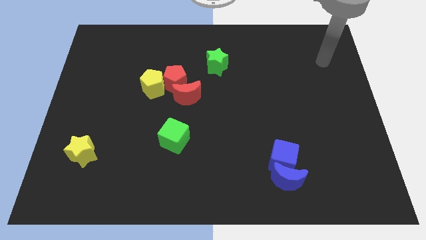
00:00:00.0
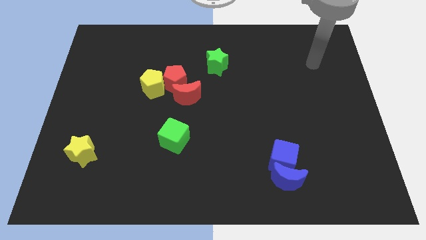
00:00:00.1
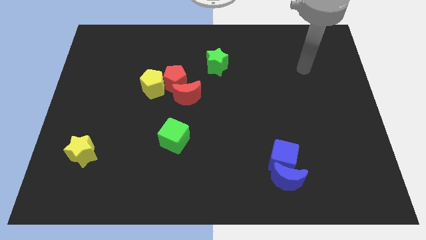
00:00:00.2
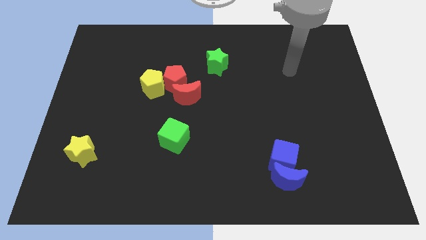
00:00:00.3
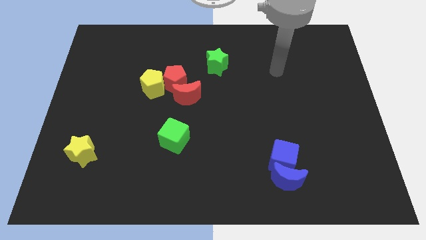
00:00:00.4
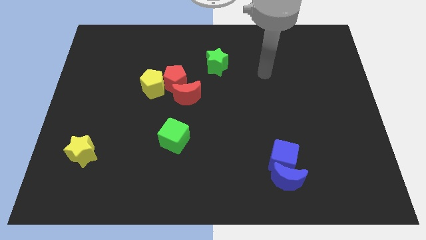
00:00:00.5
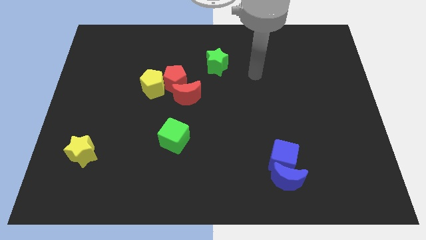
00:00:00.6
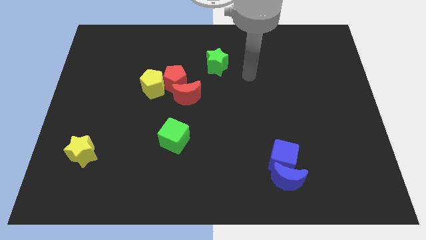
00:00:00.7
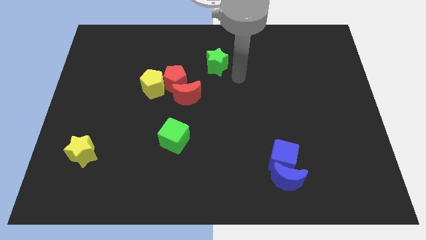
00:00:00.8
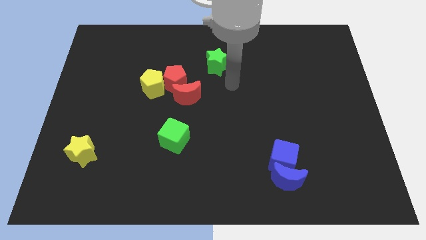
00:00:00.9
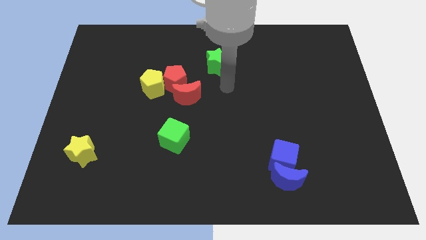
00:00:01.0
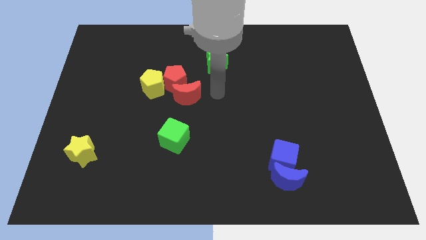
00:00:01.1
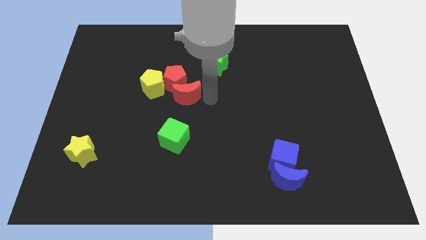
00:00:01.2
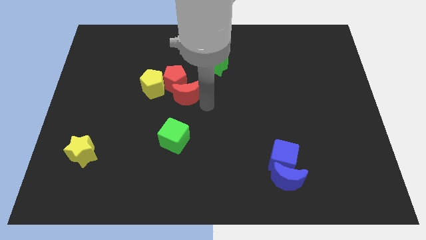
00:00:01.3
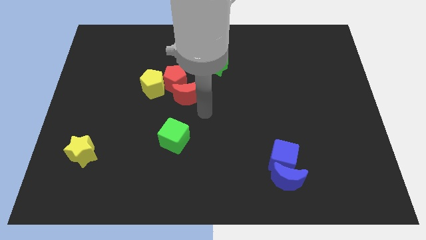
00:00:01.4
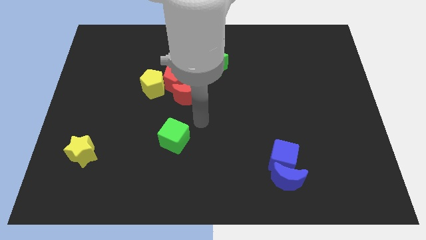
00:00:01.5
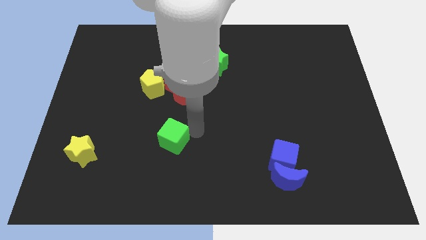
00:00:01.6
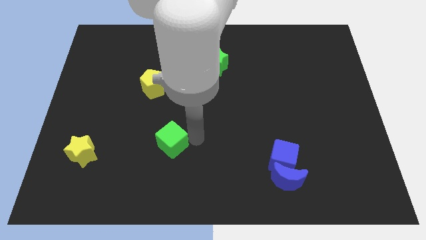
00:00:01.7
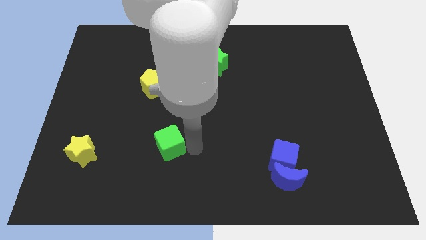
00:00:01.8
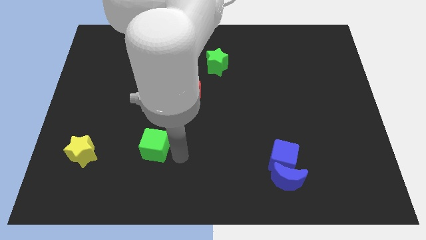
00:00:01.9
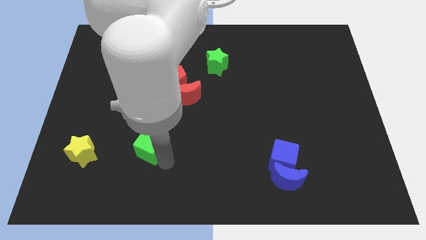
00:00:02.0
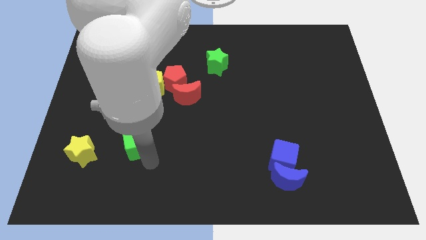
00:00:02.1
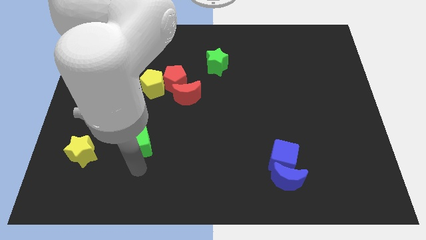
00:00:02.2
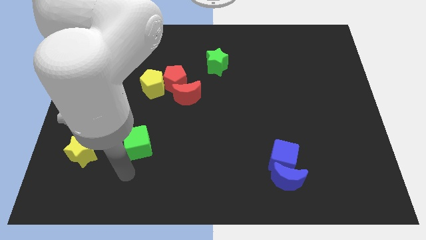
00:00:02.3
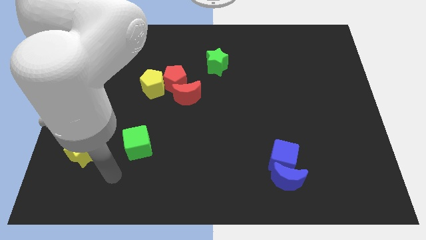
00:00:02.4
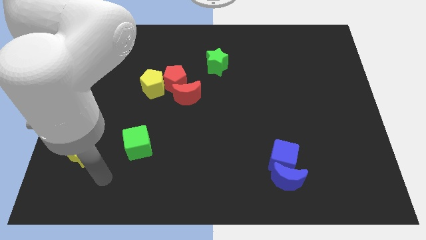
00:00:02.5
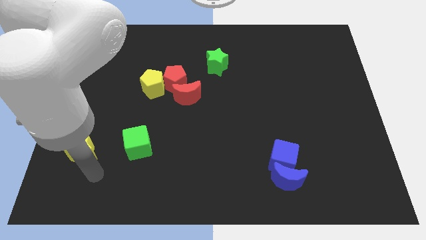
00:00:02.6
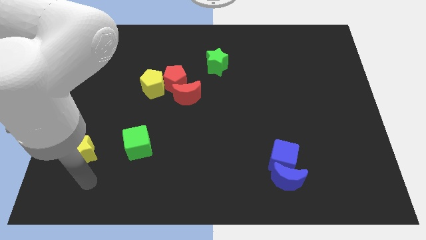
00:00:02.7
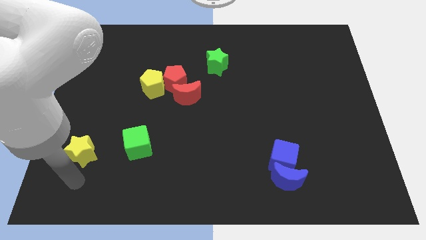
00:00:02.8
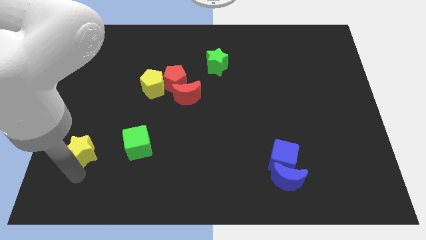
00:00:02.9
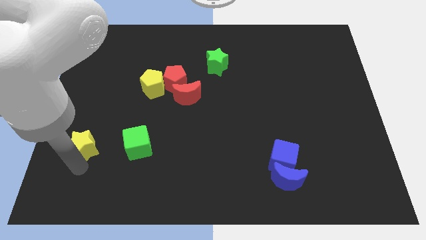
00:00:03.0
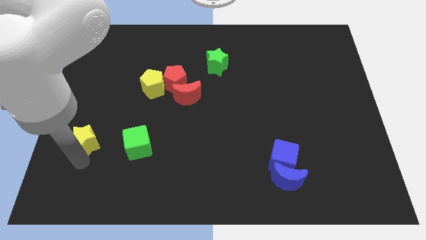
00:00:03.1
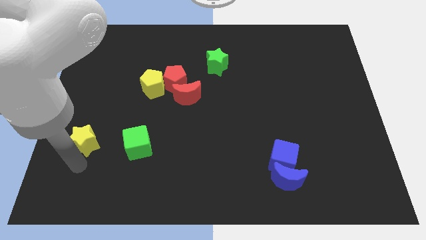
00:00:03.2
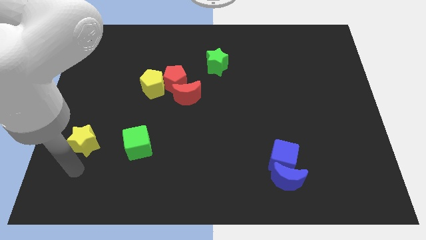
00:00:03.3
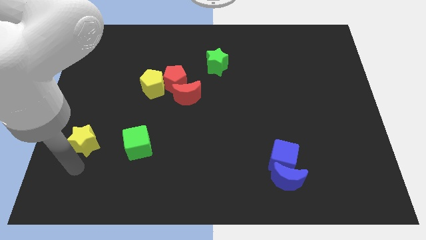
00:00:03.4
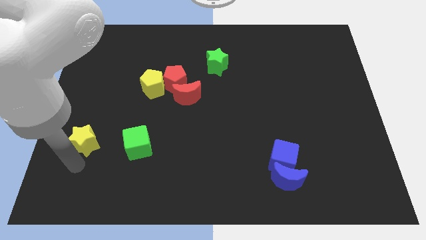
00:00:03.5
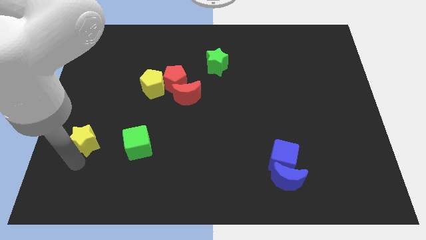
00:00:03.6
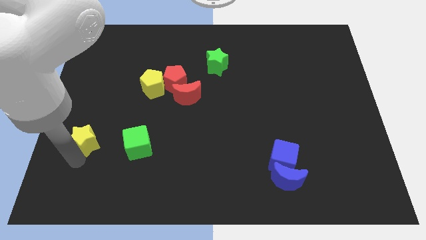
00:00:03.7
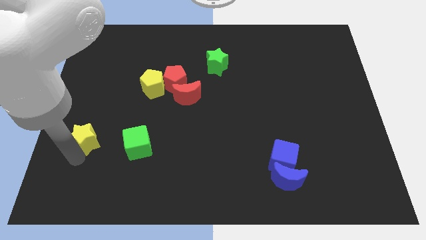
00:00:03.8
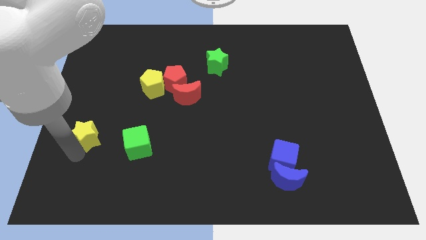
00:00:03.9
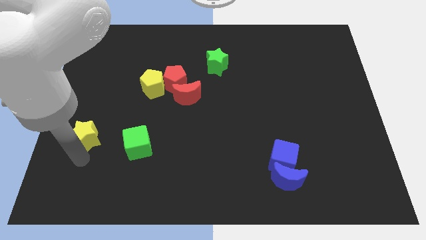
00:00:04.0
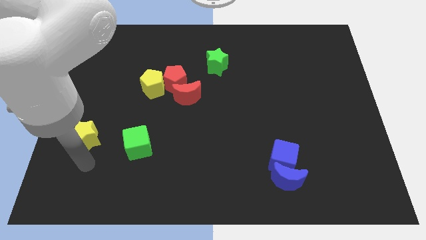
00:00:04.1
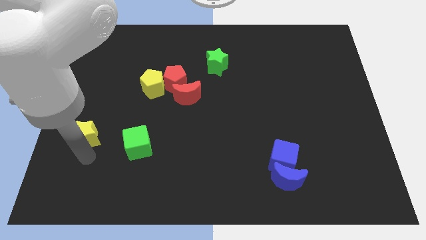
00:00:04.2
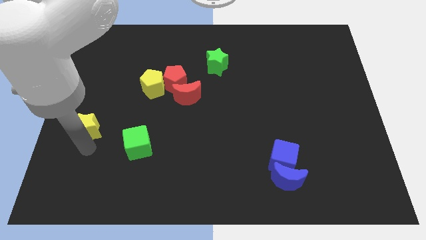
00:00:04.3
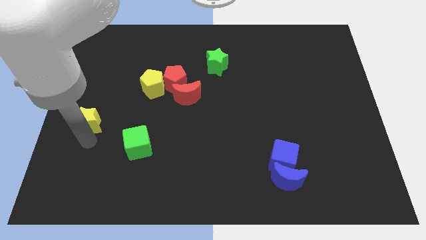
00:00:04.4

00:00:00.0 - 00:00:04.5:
push the yellow star a little up

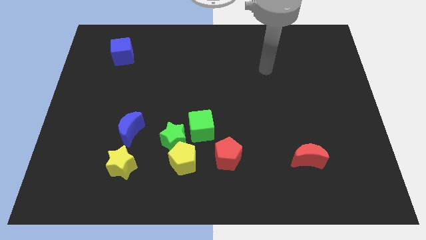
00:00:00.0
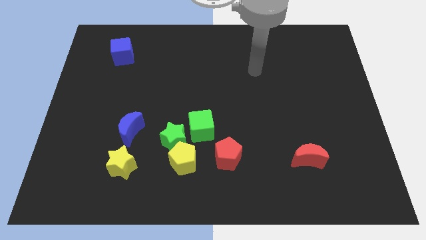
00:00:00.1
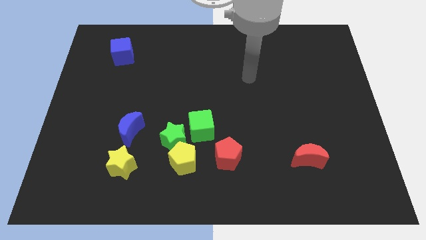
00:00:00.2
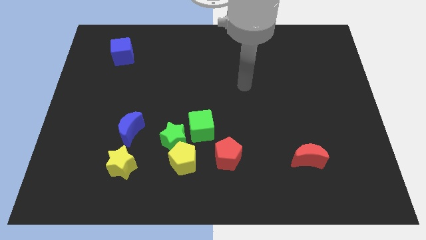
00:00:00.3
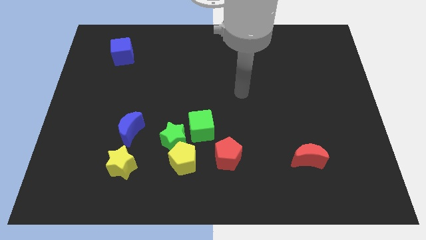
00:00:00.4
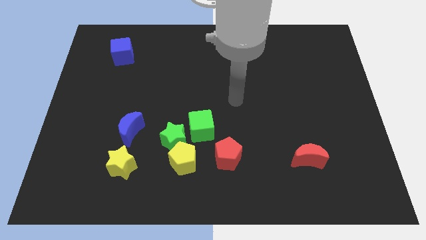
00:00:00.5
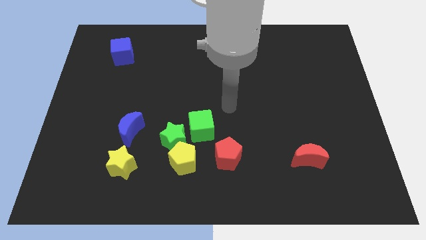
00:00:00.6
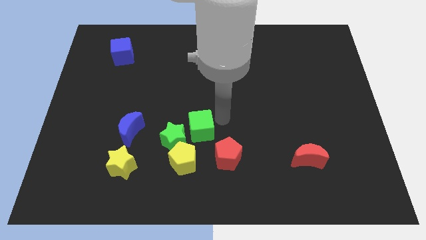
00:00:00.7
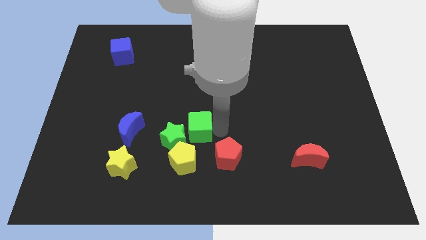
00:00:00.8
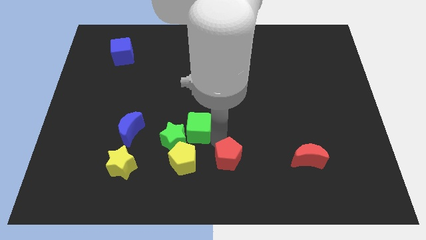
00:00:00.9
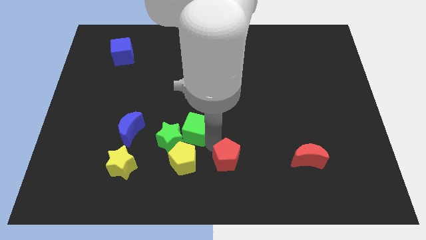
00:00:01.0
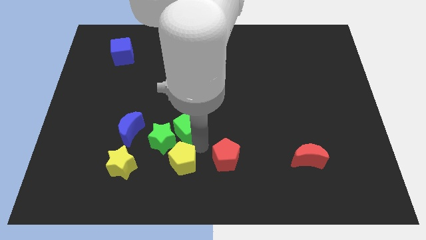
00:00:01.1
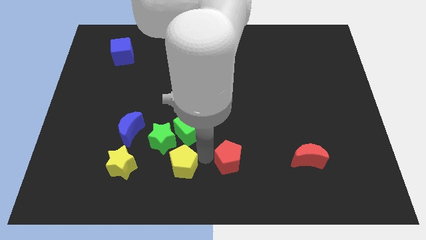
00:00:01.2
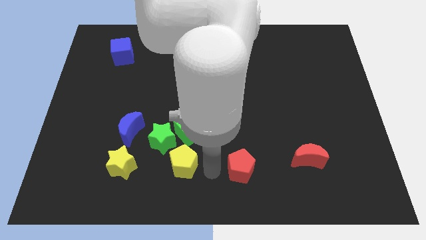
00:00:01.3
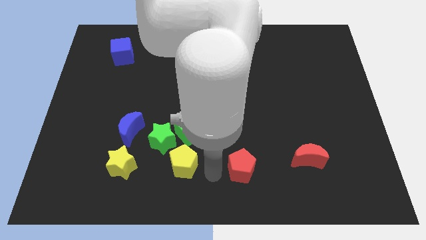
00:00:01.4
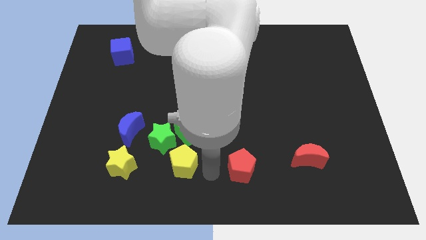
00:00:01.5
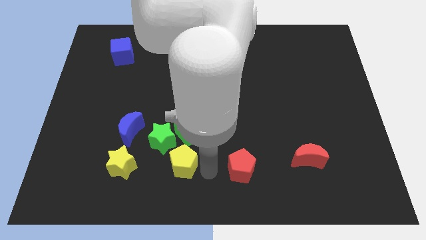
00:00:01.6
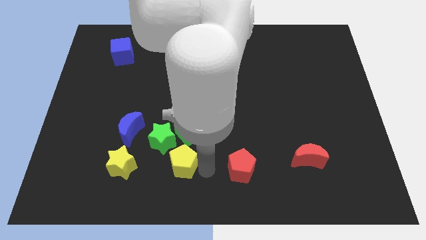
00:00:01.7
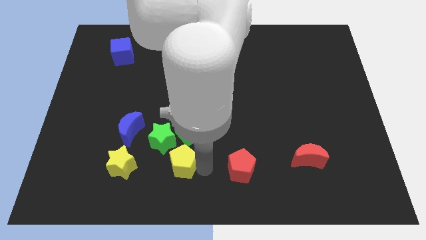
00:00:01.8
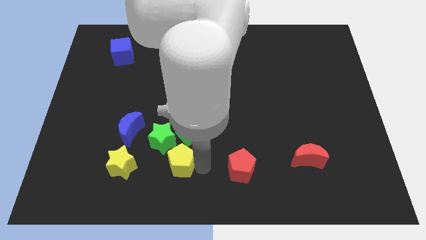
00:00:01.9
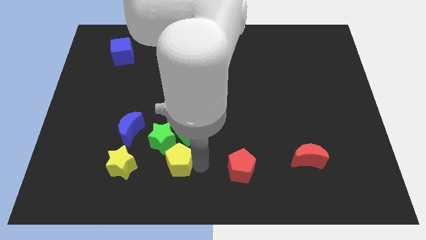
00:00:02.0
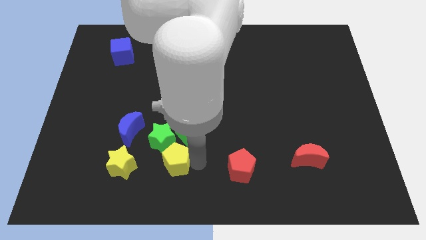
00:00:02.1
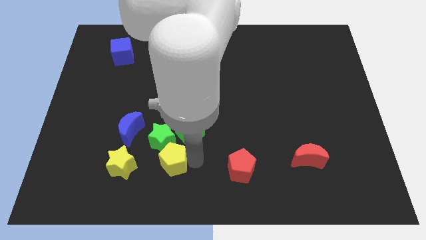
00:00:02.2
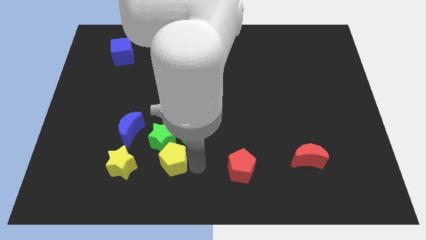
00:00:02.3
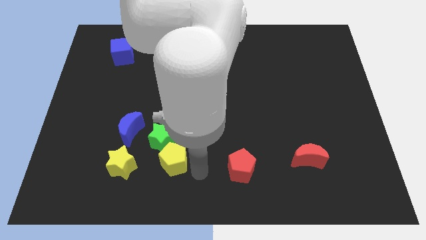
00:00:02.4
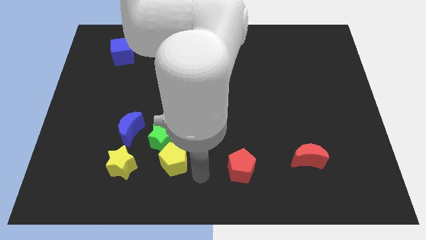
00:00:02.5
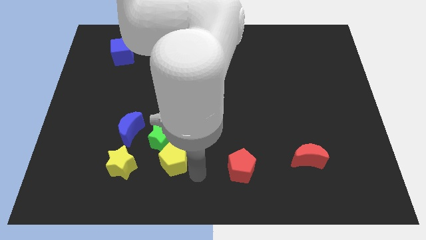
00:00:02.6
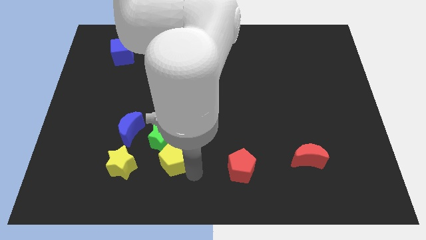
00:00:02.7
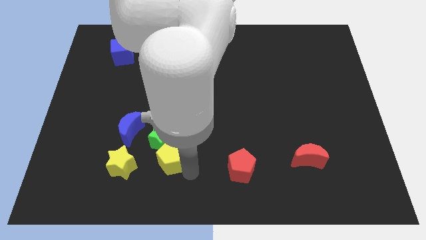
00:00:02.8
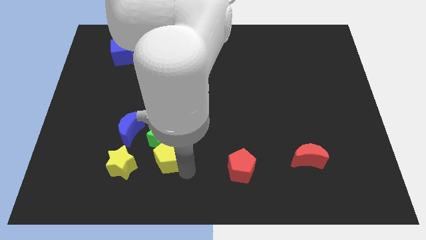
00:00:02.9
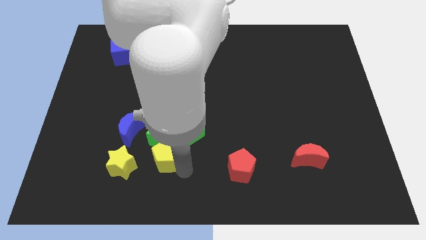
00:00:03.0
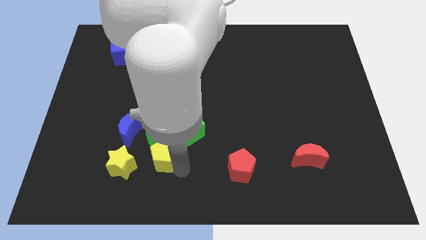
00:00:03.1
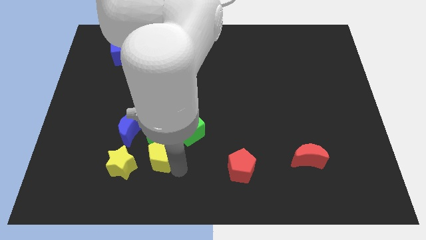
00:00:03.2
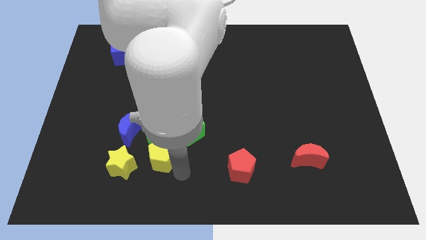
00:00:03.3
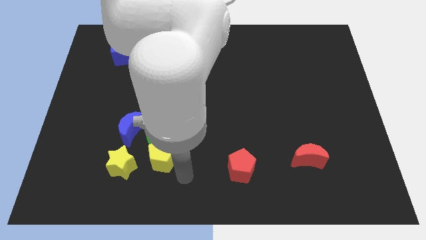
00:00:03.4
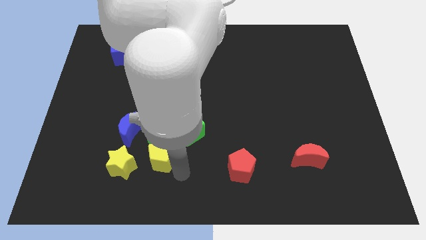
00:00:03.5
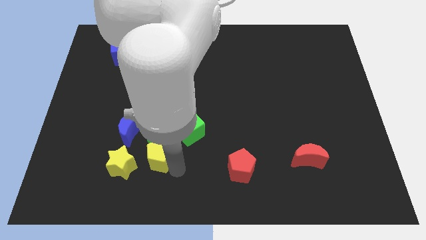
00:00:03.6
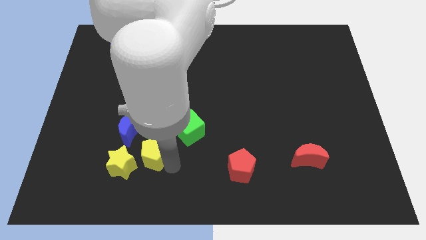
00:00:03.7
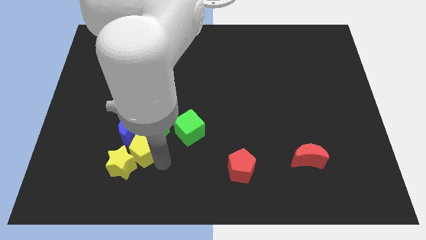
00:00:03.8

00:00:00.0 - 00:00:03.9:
slide the yellow pentagon a little bit diagonally upwards and to the left
